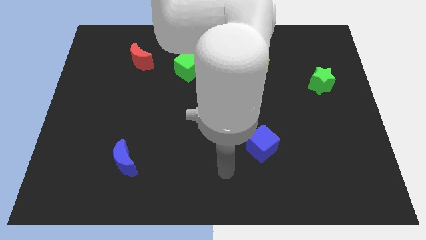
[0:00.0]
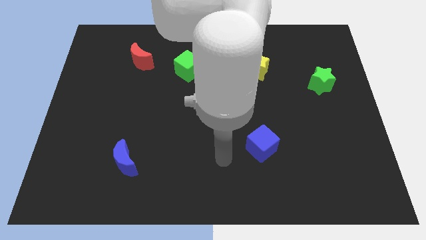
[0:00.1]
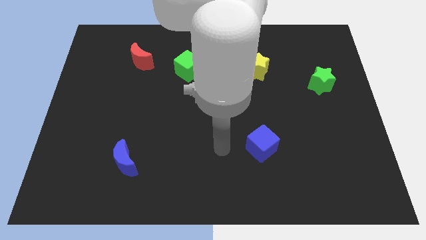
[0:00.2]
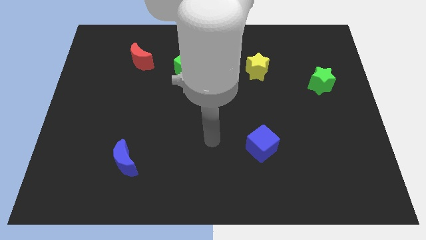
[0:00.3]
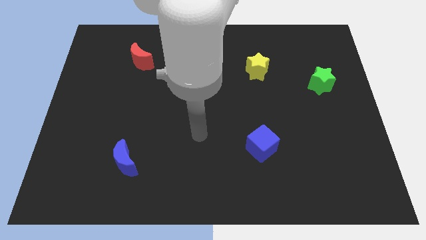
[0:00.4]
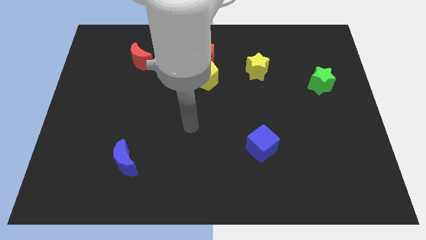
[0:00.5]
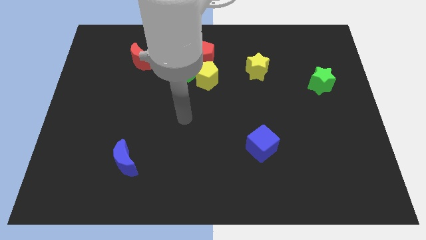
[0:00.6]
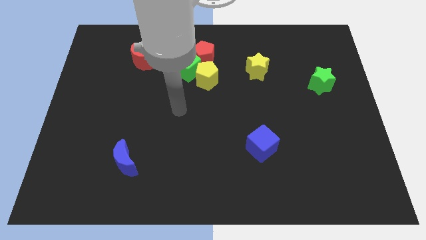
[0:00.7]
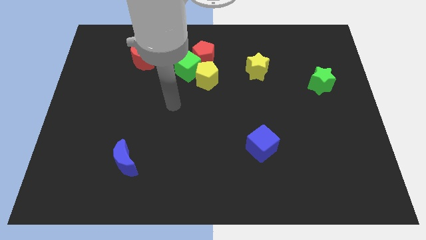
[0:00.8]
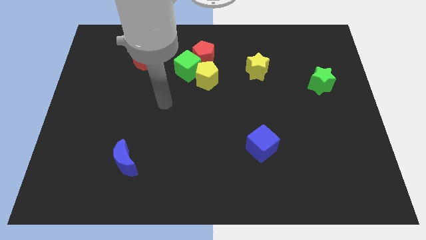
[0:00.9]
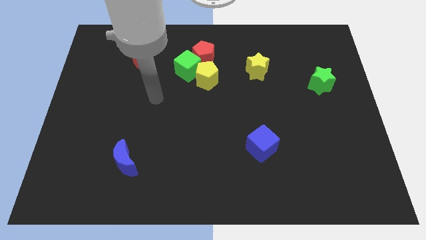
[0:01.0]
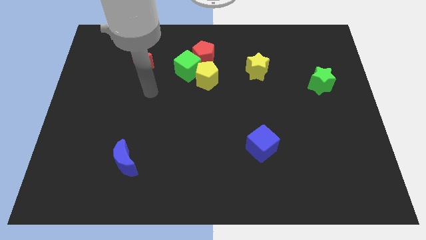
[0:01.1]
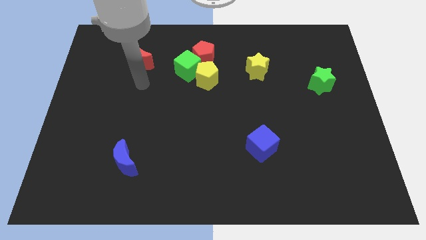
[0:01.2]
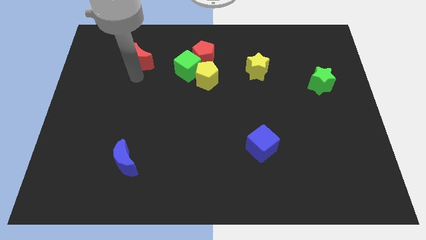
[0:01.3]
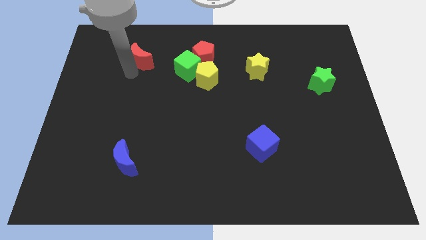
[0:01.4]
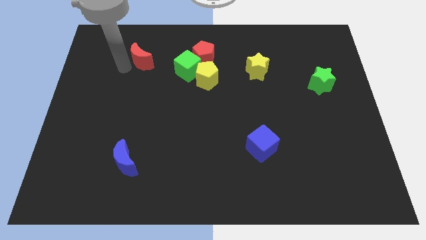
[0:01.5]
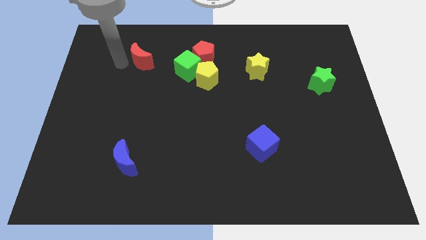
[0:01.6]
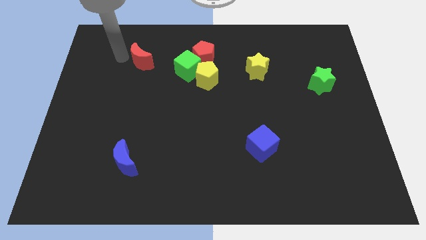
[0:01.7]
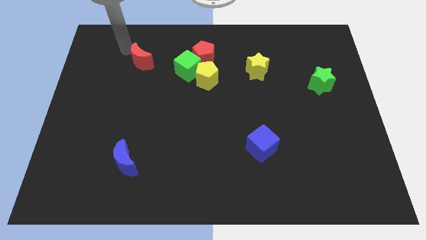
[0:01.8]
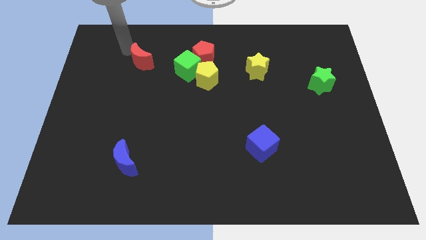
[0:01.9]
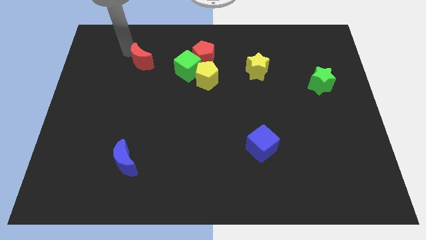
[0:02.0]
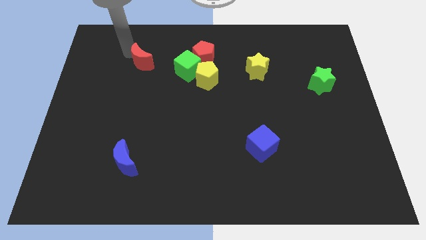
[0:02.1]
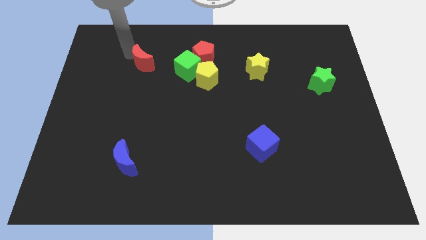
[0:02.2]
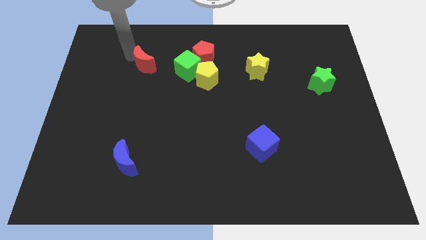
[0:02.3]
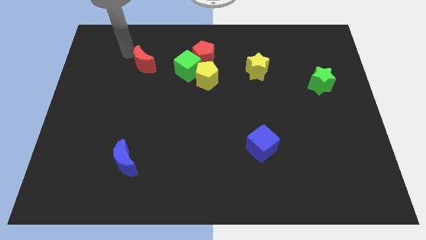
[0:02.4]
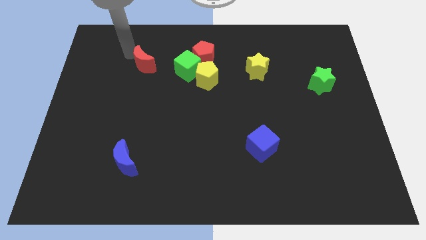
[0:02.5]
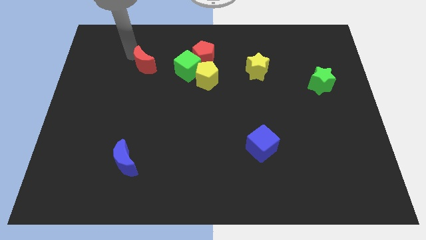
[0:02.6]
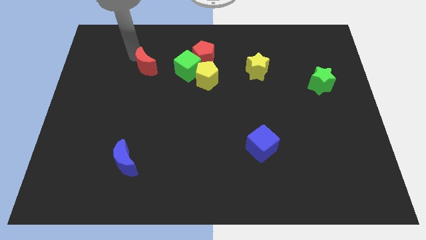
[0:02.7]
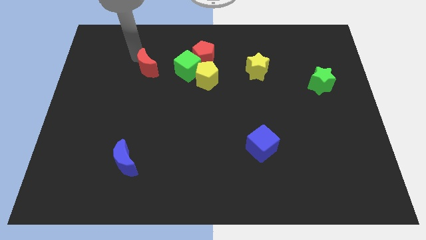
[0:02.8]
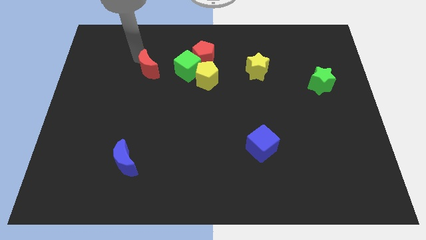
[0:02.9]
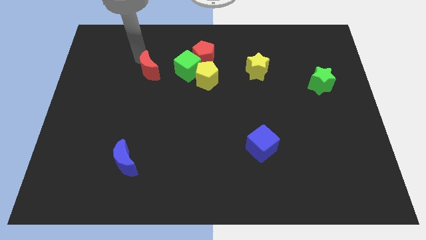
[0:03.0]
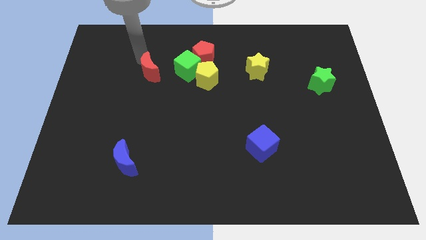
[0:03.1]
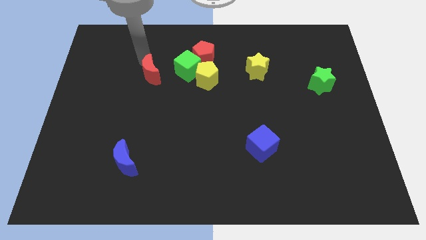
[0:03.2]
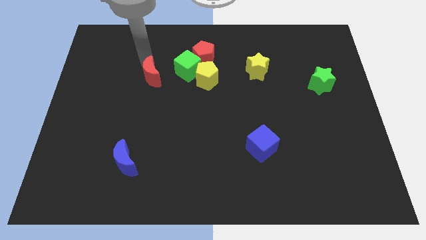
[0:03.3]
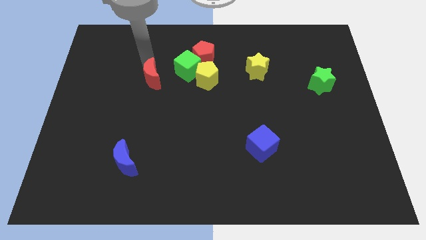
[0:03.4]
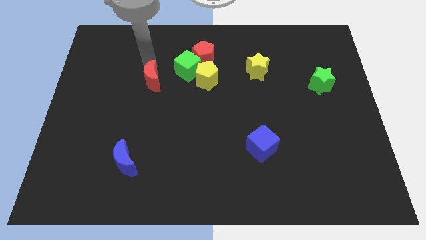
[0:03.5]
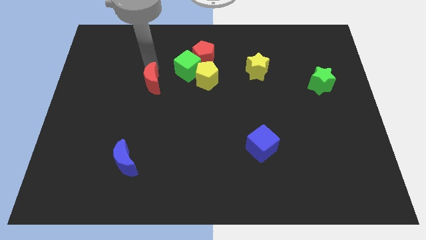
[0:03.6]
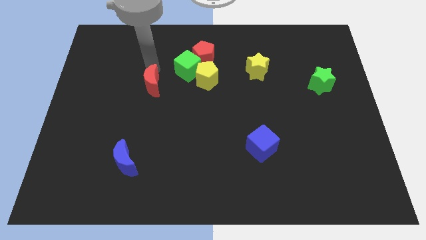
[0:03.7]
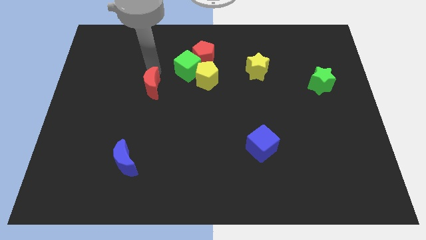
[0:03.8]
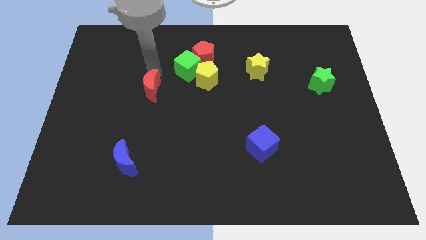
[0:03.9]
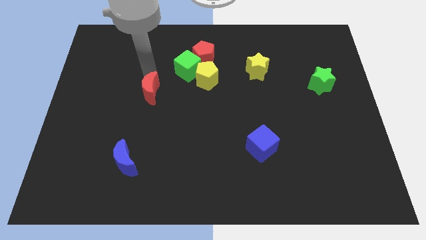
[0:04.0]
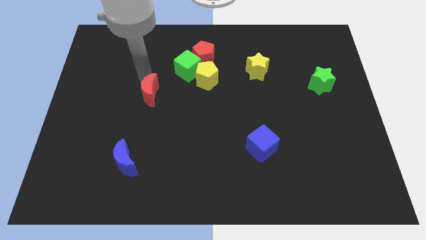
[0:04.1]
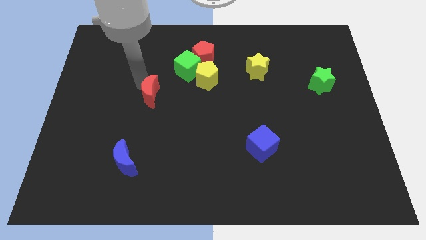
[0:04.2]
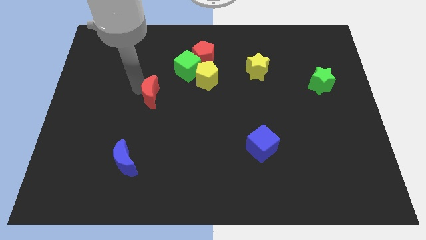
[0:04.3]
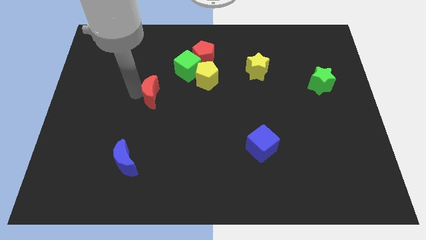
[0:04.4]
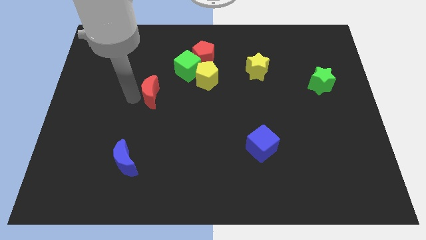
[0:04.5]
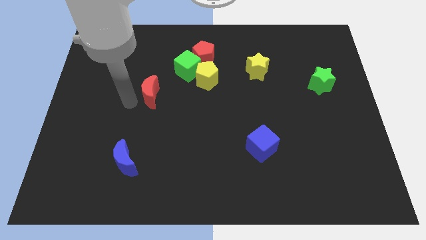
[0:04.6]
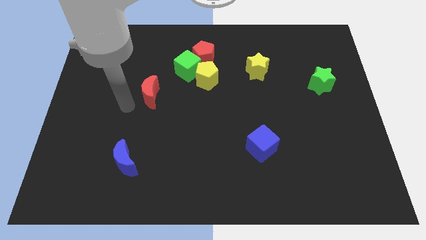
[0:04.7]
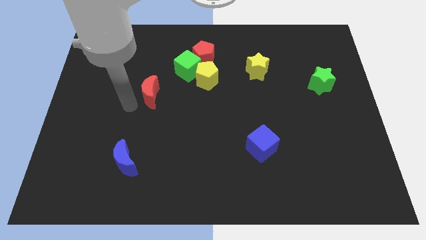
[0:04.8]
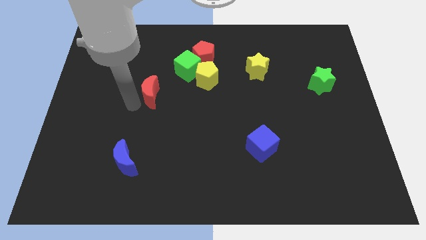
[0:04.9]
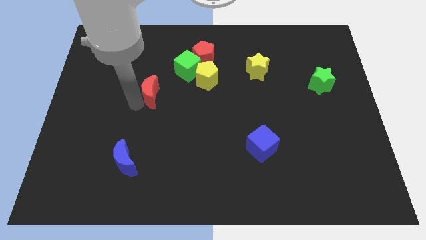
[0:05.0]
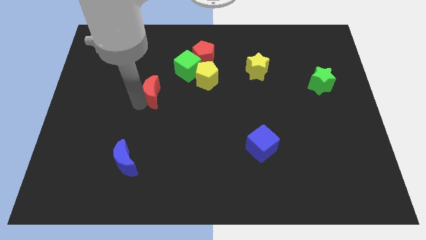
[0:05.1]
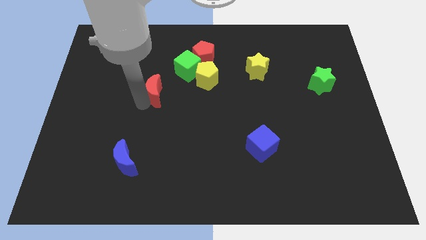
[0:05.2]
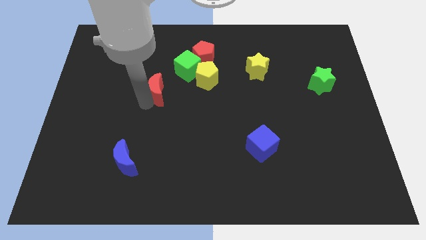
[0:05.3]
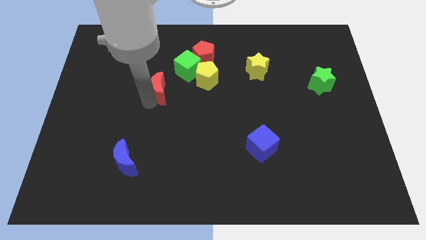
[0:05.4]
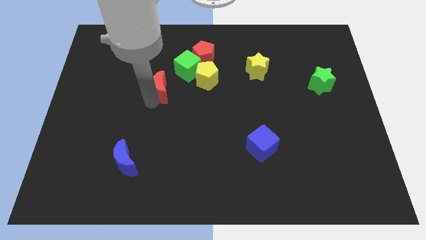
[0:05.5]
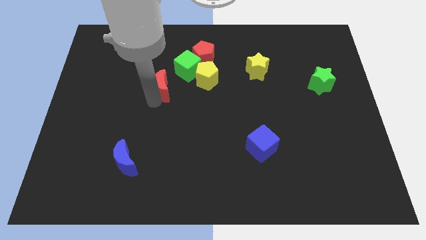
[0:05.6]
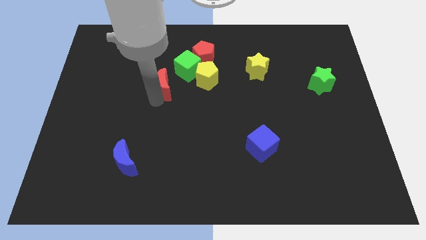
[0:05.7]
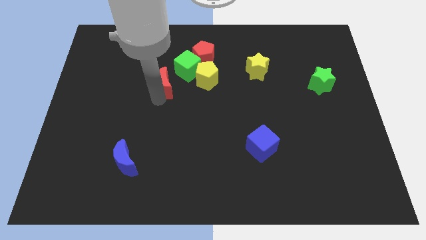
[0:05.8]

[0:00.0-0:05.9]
move the red moon to the middle
